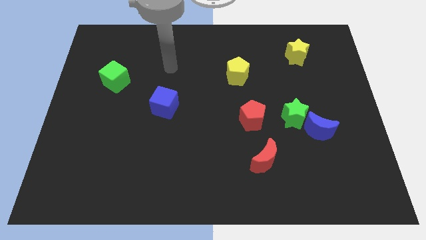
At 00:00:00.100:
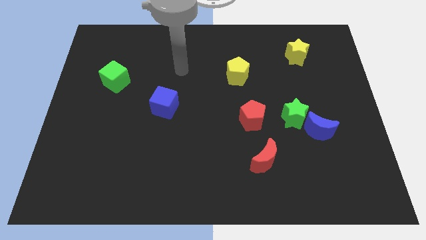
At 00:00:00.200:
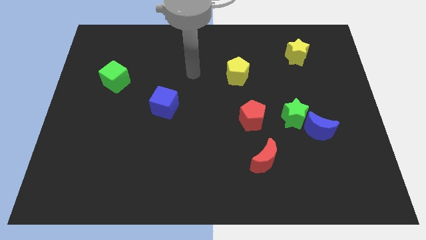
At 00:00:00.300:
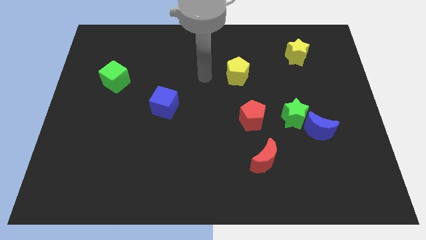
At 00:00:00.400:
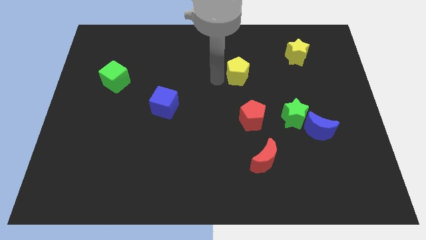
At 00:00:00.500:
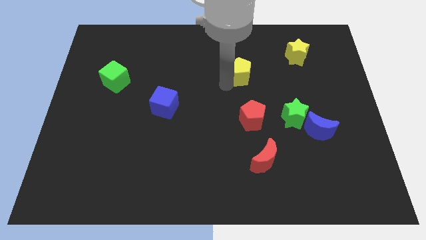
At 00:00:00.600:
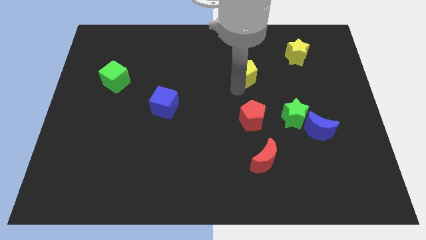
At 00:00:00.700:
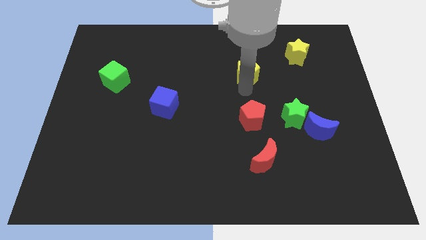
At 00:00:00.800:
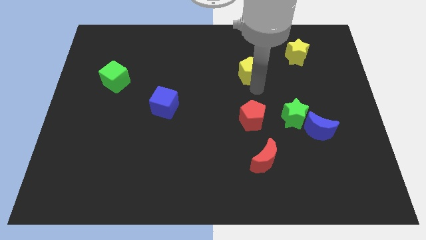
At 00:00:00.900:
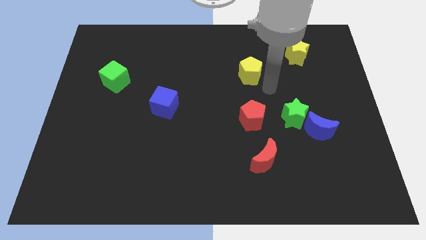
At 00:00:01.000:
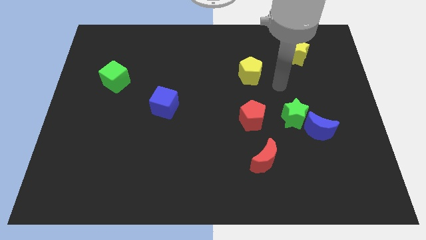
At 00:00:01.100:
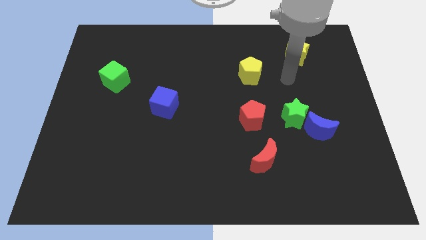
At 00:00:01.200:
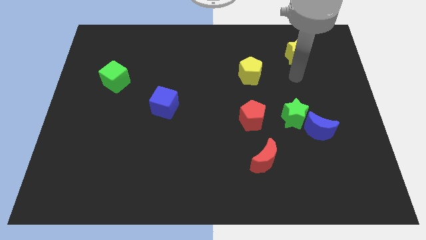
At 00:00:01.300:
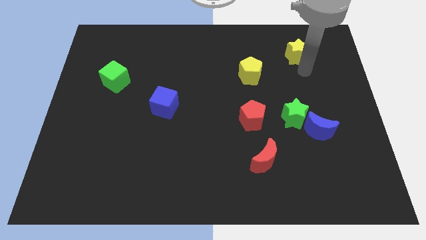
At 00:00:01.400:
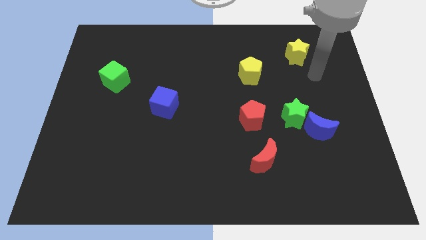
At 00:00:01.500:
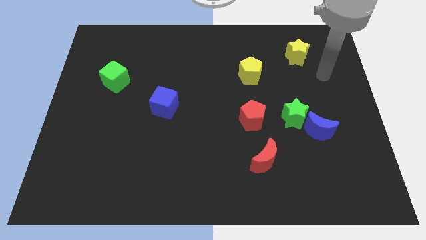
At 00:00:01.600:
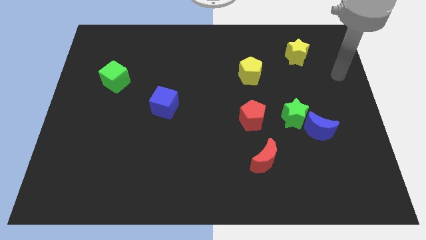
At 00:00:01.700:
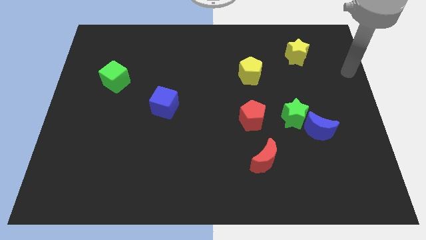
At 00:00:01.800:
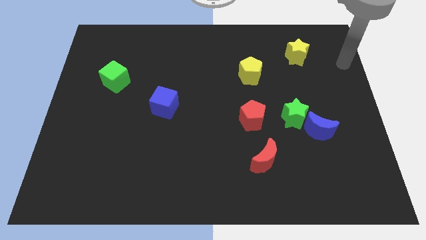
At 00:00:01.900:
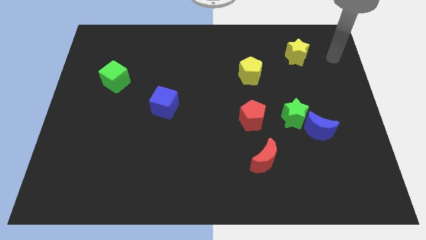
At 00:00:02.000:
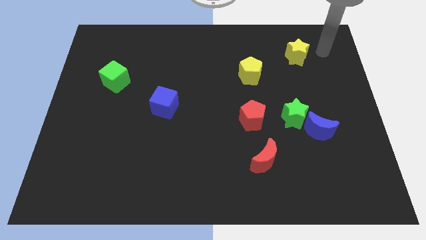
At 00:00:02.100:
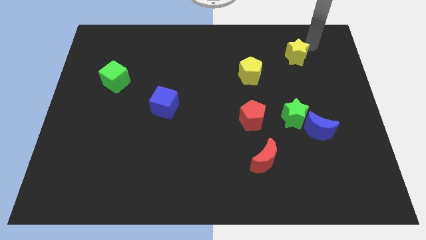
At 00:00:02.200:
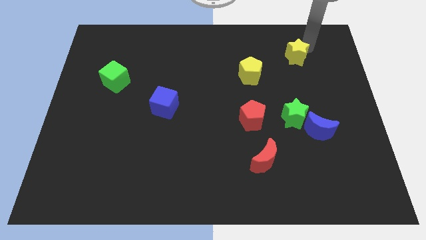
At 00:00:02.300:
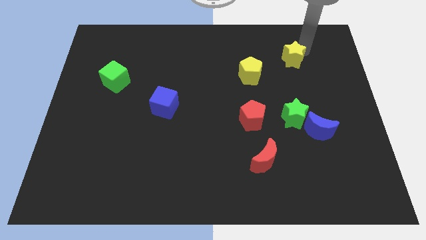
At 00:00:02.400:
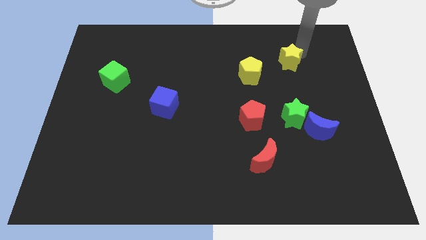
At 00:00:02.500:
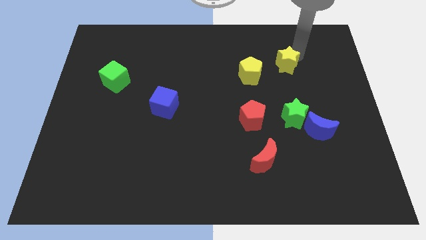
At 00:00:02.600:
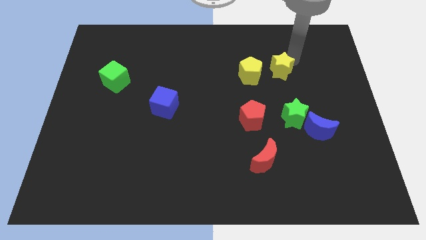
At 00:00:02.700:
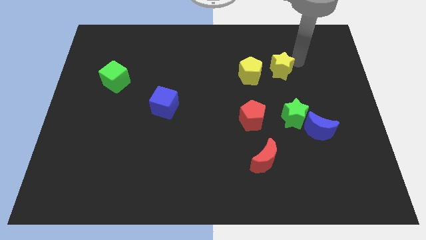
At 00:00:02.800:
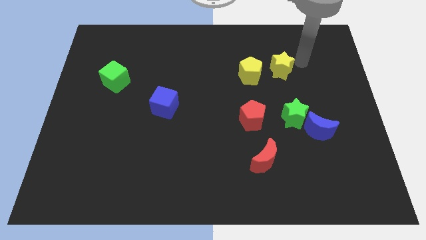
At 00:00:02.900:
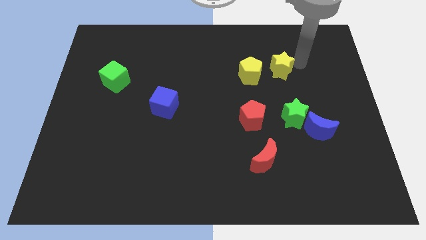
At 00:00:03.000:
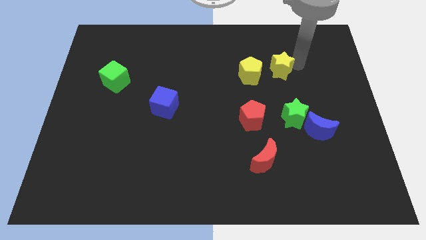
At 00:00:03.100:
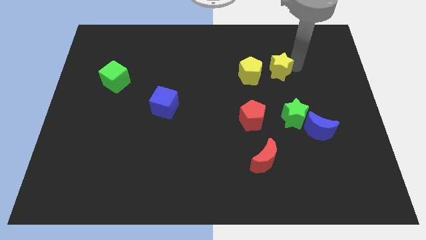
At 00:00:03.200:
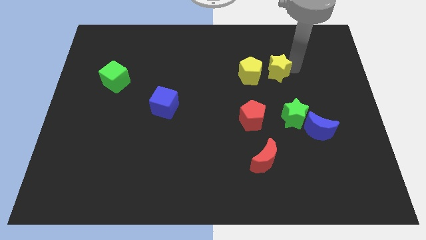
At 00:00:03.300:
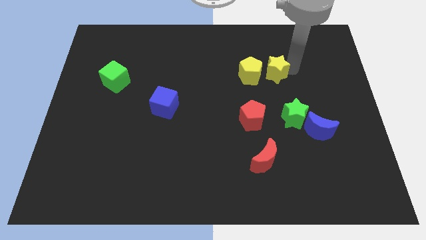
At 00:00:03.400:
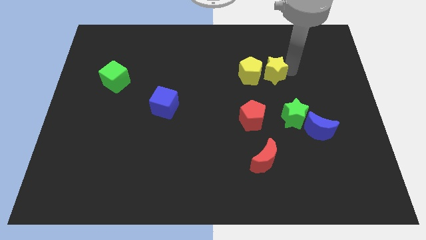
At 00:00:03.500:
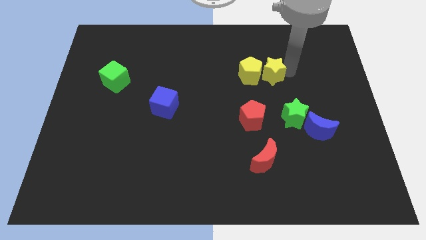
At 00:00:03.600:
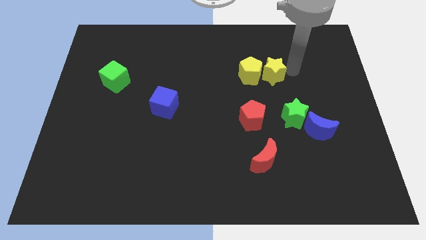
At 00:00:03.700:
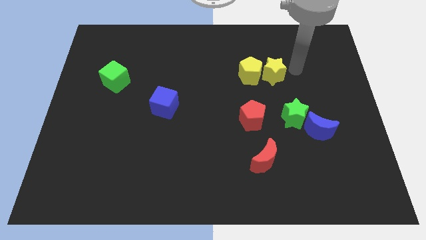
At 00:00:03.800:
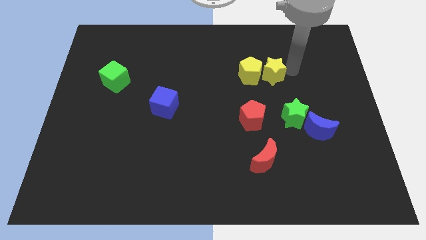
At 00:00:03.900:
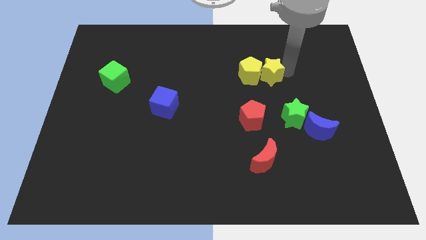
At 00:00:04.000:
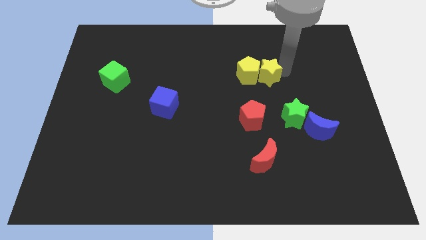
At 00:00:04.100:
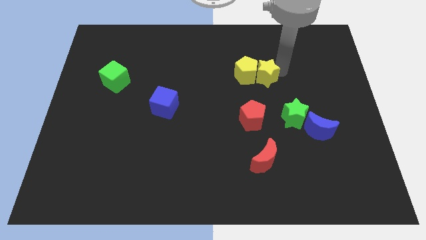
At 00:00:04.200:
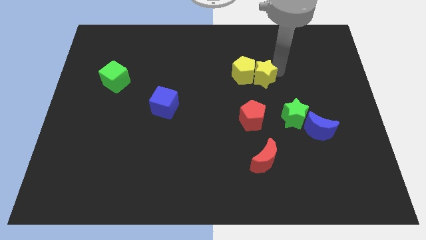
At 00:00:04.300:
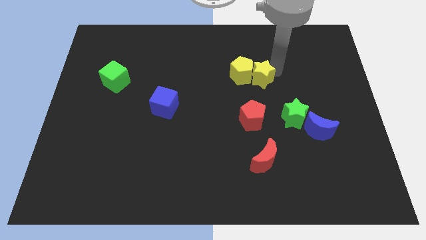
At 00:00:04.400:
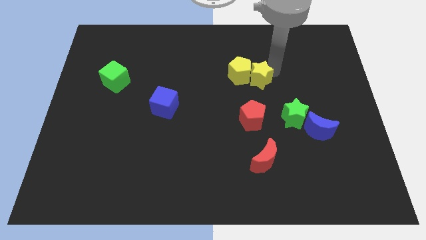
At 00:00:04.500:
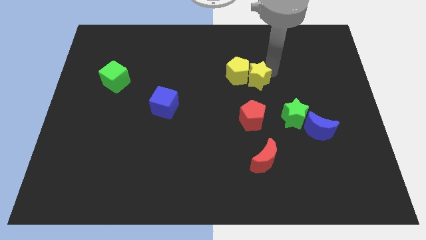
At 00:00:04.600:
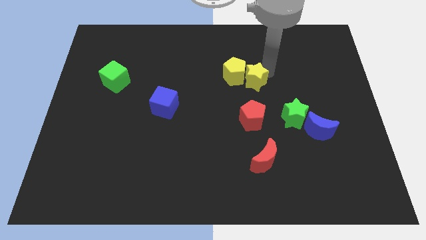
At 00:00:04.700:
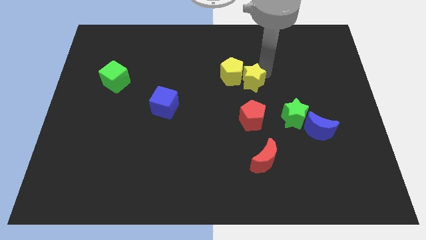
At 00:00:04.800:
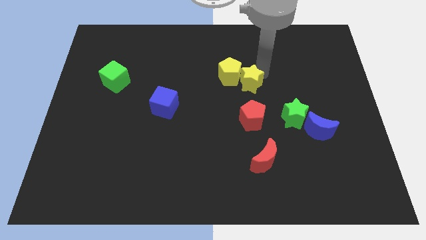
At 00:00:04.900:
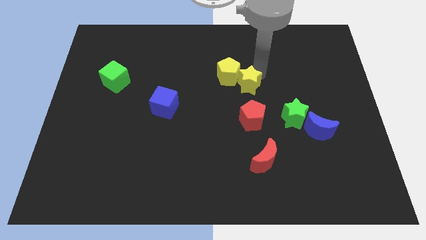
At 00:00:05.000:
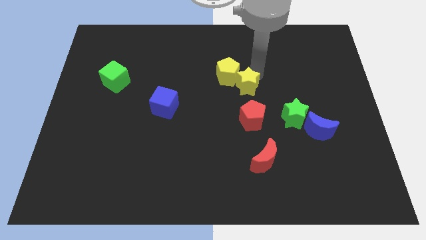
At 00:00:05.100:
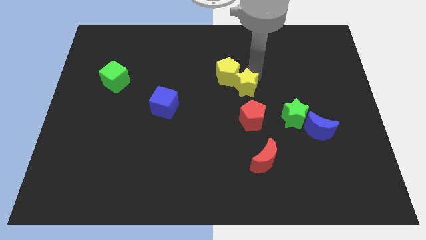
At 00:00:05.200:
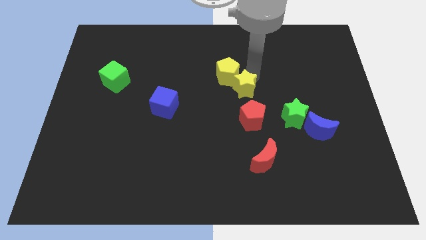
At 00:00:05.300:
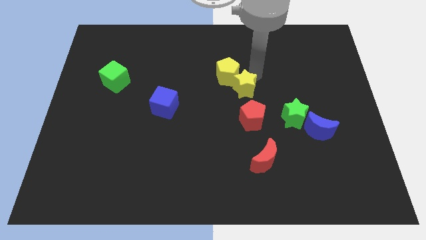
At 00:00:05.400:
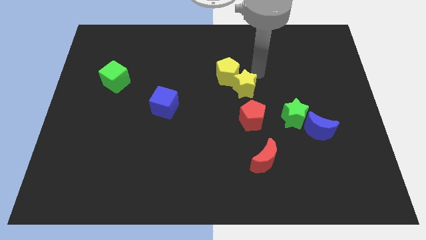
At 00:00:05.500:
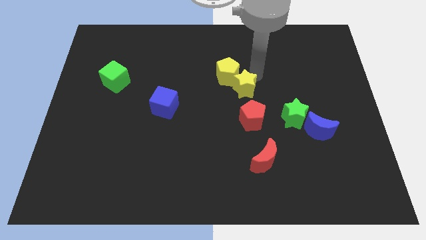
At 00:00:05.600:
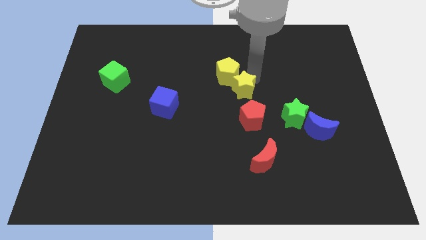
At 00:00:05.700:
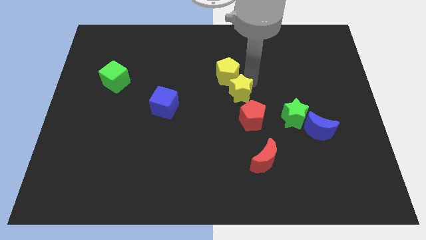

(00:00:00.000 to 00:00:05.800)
move the yellow star diagonally downwards and to the left

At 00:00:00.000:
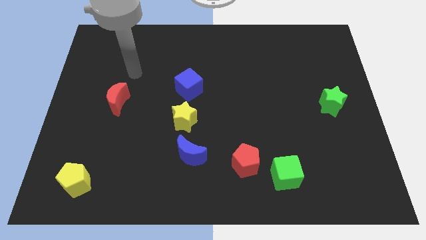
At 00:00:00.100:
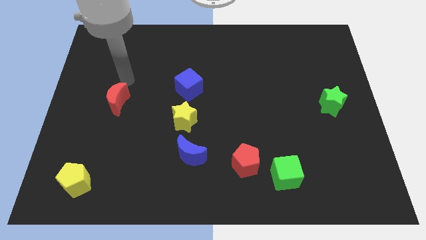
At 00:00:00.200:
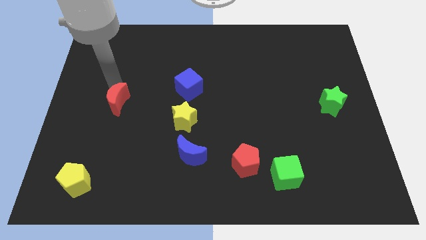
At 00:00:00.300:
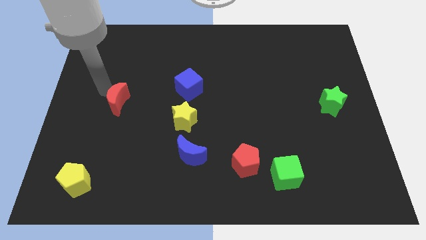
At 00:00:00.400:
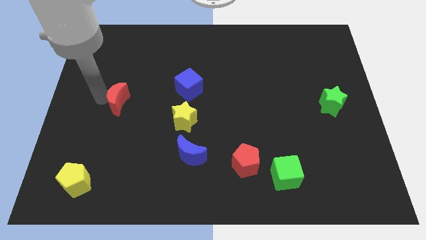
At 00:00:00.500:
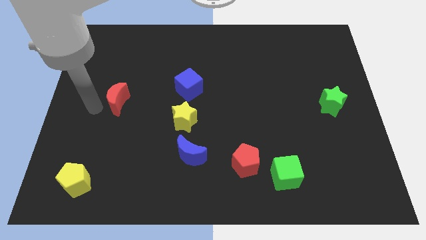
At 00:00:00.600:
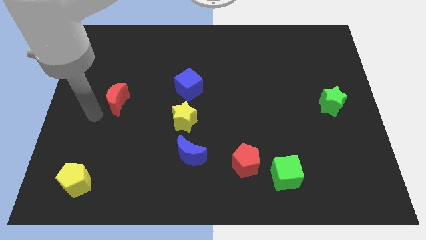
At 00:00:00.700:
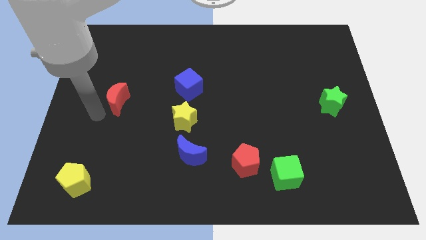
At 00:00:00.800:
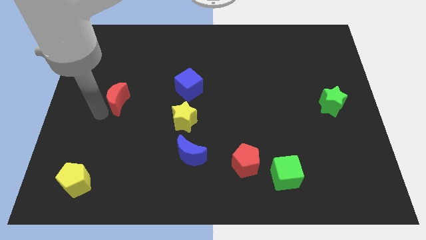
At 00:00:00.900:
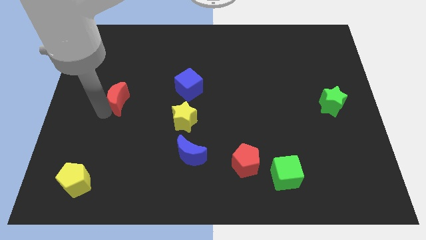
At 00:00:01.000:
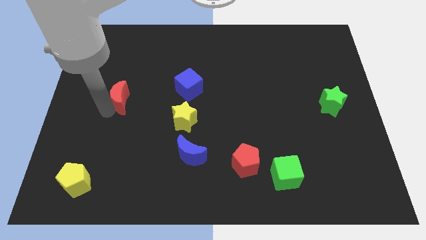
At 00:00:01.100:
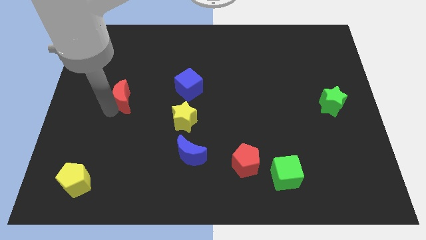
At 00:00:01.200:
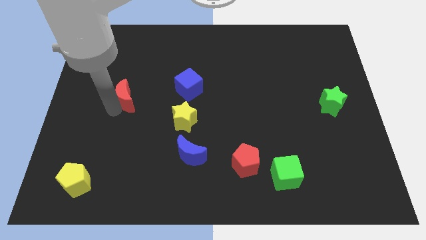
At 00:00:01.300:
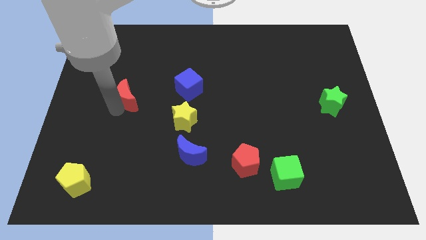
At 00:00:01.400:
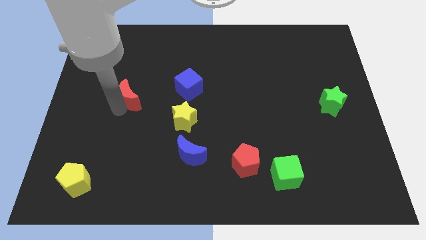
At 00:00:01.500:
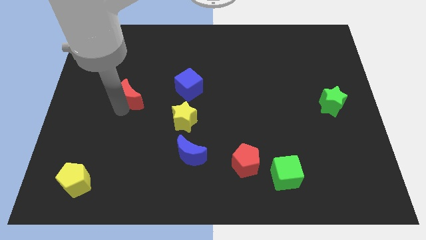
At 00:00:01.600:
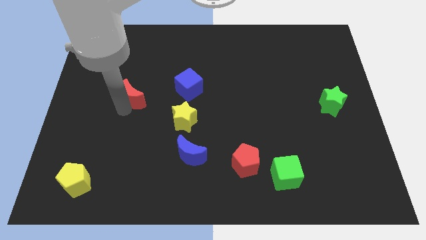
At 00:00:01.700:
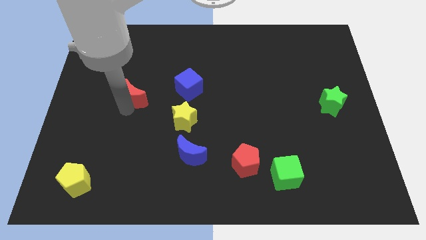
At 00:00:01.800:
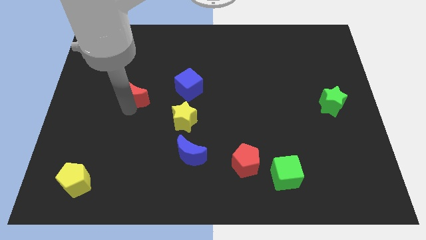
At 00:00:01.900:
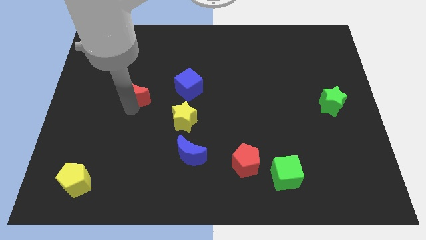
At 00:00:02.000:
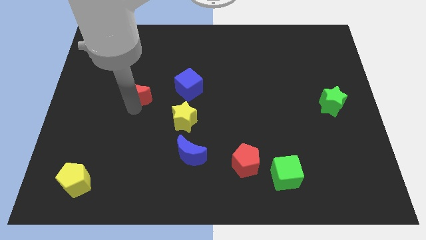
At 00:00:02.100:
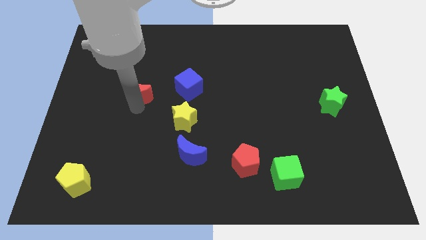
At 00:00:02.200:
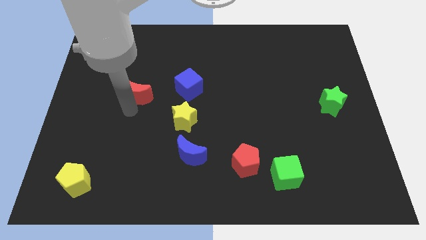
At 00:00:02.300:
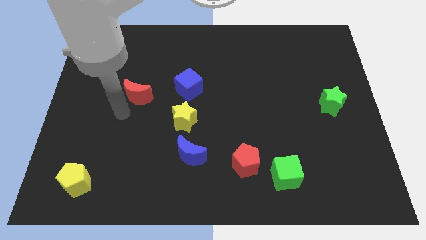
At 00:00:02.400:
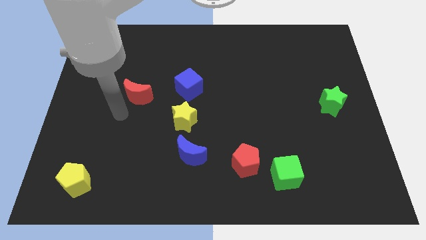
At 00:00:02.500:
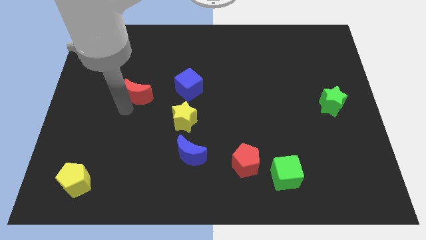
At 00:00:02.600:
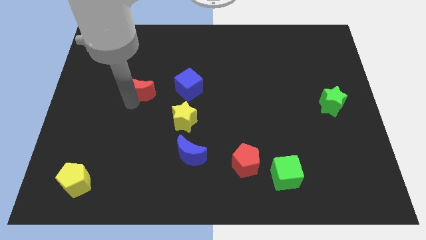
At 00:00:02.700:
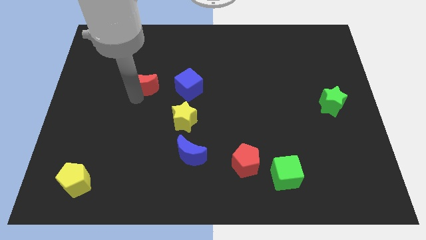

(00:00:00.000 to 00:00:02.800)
slightly move the red moon up and then to the right
